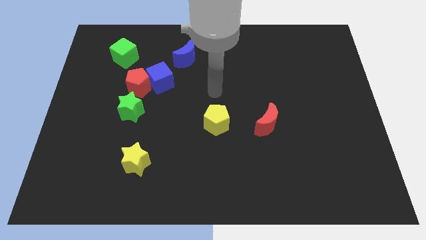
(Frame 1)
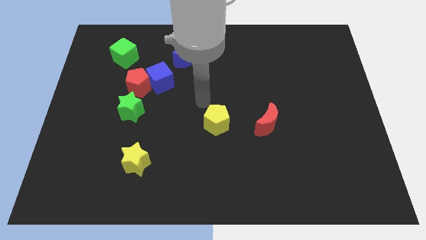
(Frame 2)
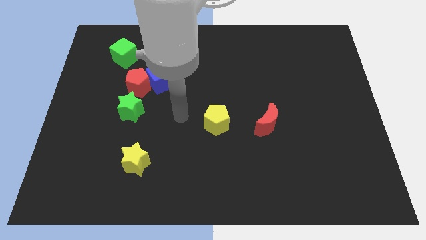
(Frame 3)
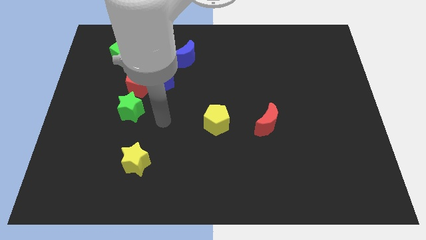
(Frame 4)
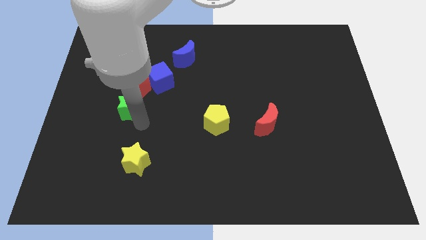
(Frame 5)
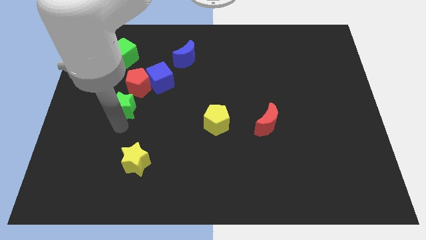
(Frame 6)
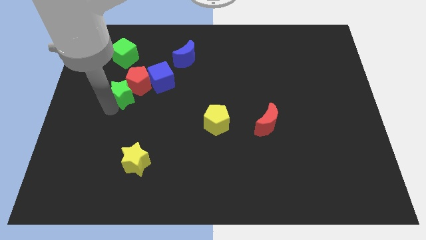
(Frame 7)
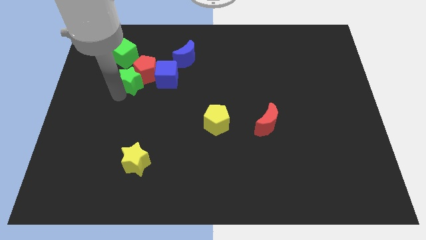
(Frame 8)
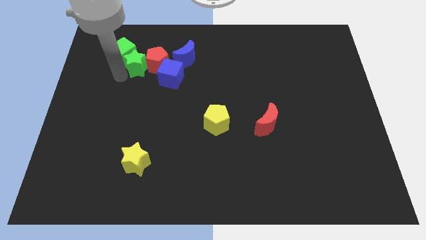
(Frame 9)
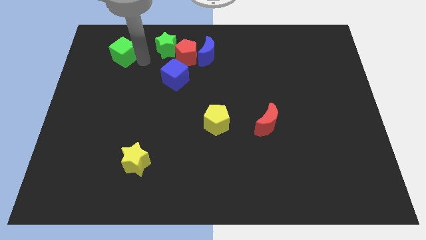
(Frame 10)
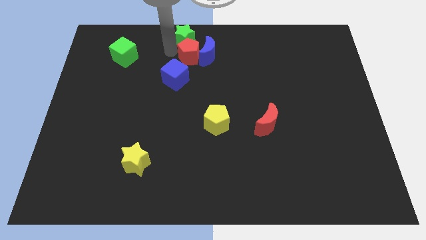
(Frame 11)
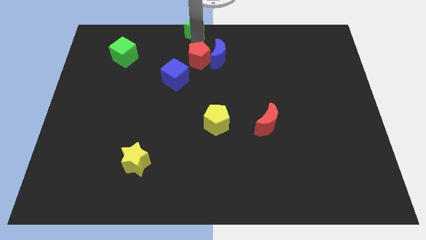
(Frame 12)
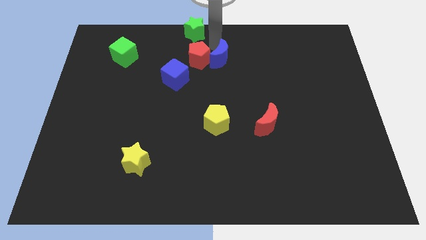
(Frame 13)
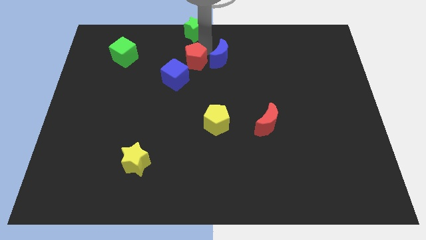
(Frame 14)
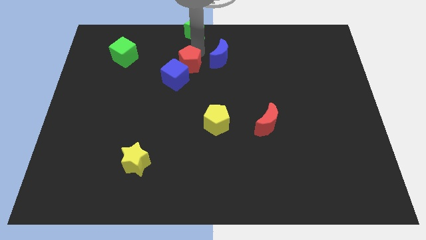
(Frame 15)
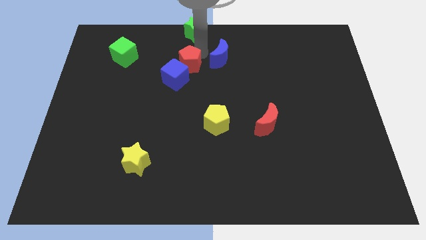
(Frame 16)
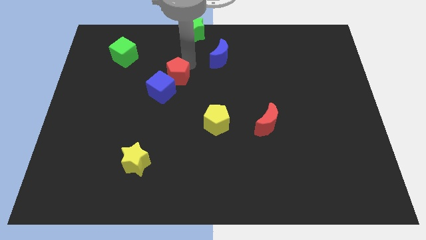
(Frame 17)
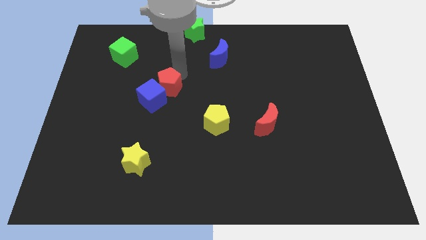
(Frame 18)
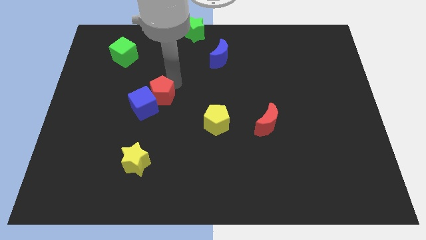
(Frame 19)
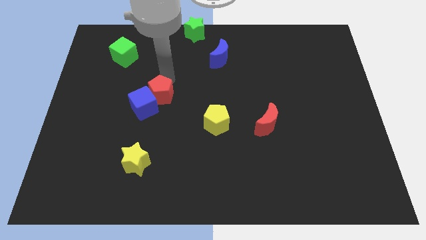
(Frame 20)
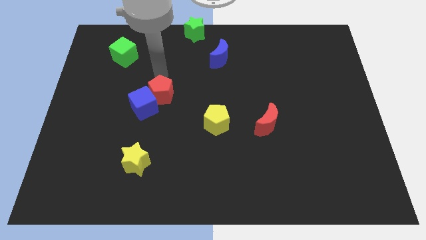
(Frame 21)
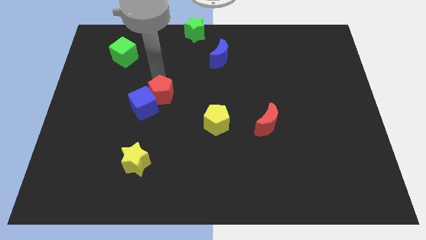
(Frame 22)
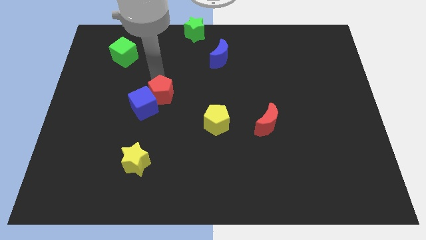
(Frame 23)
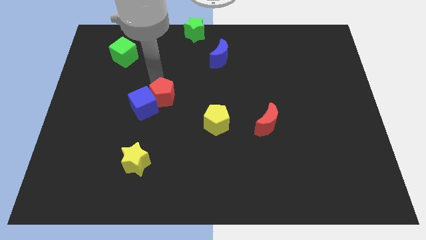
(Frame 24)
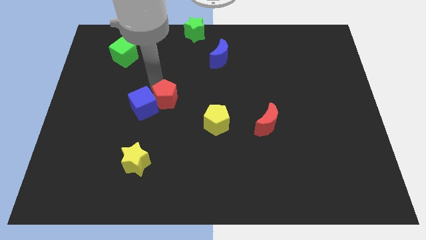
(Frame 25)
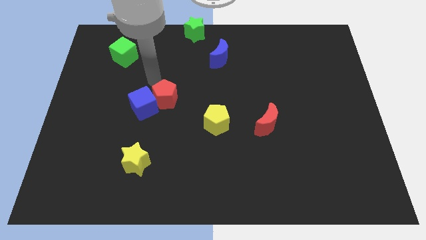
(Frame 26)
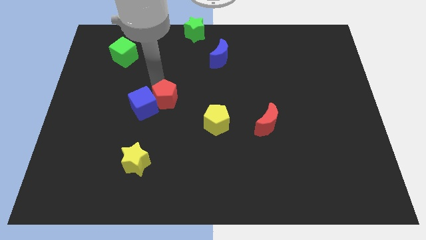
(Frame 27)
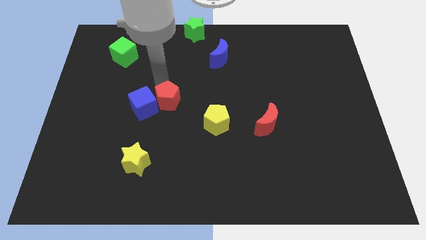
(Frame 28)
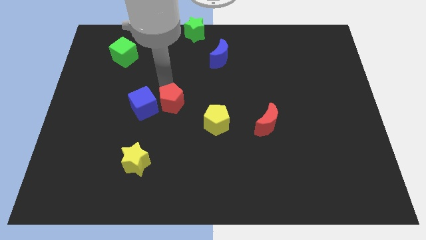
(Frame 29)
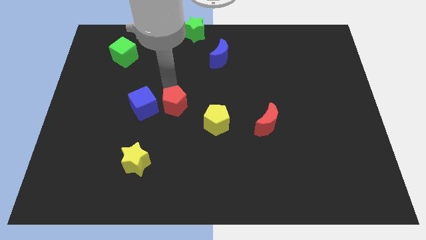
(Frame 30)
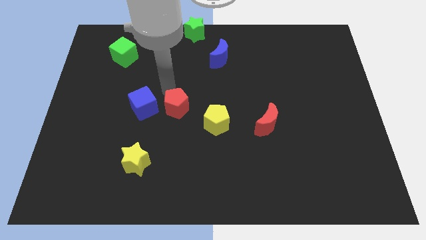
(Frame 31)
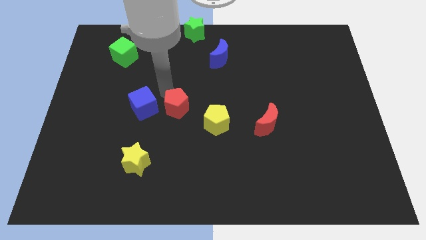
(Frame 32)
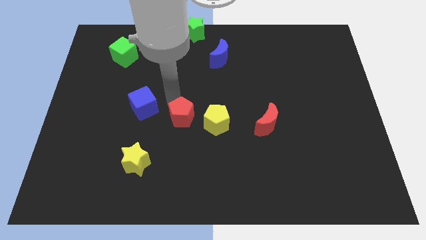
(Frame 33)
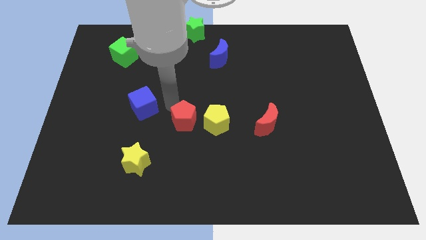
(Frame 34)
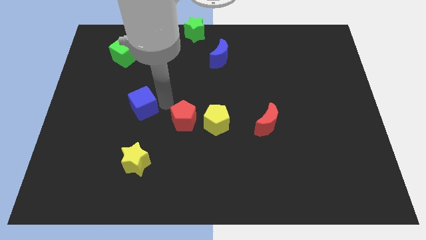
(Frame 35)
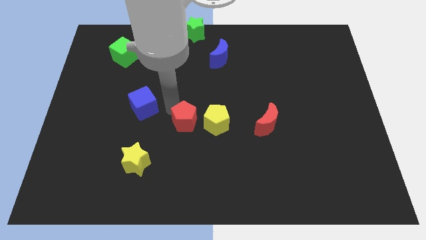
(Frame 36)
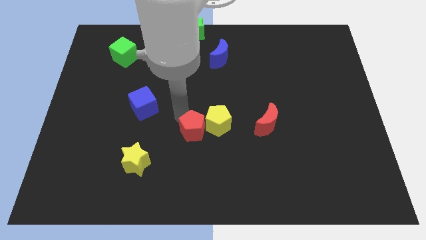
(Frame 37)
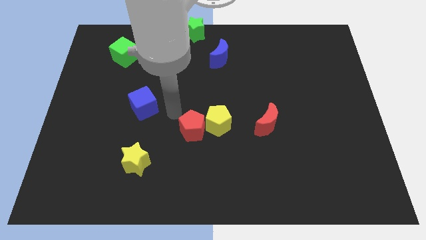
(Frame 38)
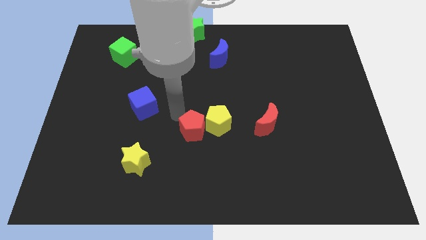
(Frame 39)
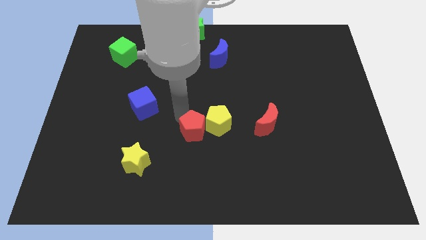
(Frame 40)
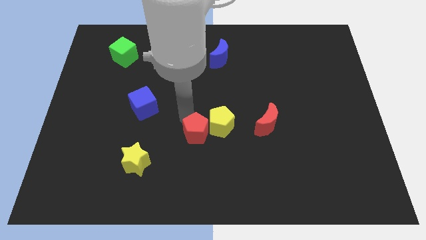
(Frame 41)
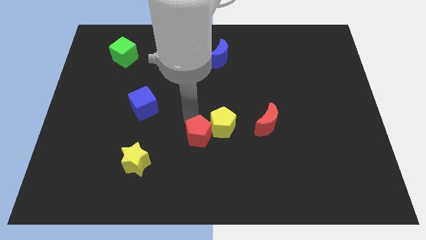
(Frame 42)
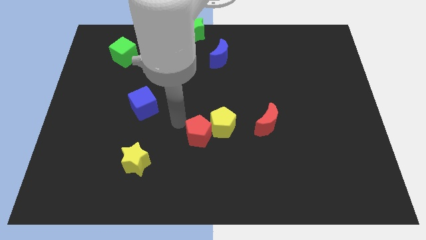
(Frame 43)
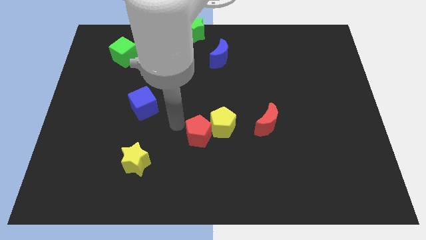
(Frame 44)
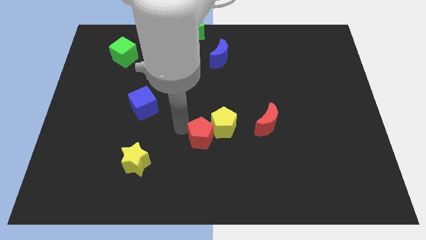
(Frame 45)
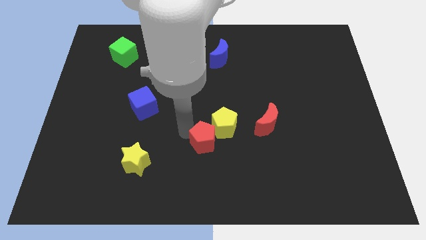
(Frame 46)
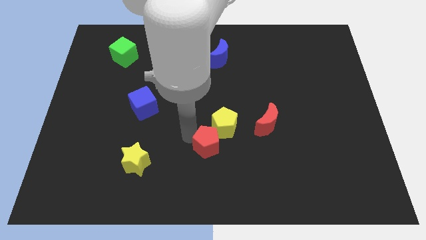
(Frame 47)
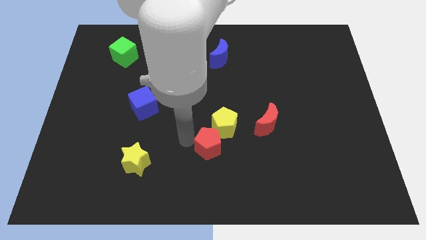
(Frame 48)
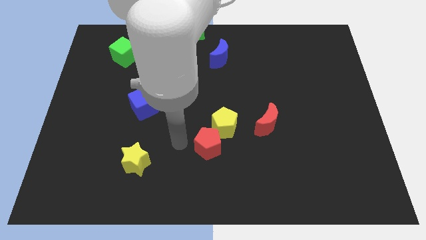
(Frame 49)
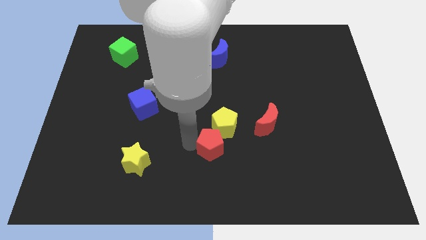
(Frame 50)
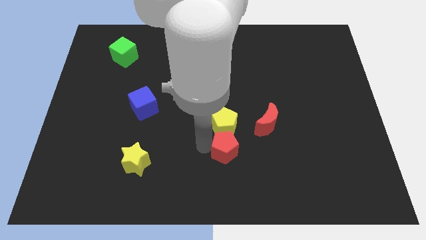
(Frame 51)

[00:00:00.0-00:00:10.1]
move the red pentagon to the bottom left side of the red moon

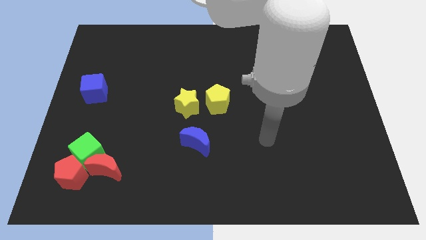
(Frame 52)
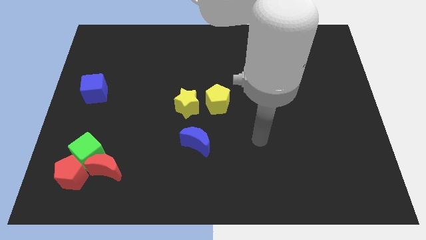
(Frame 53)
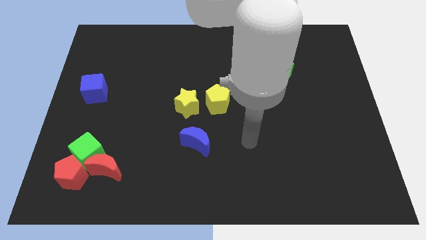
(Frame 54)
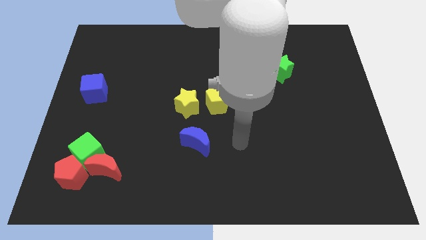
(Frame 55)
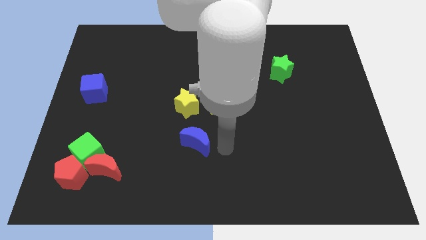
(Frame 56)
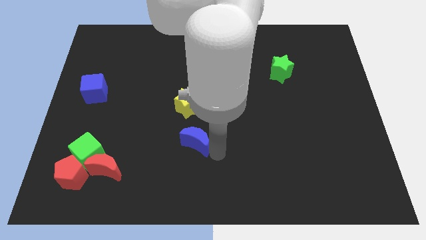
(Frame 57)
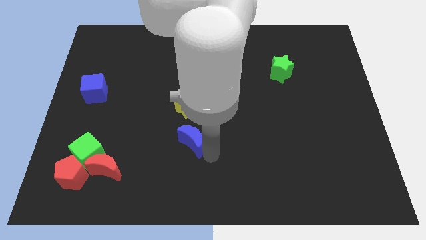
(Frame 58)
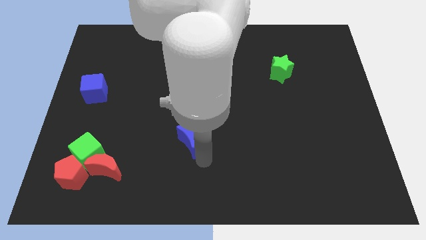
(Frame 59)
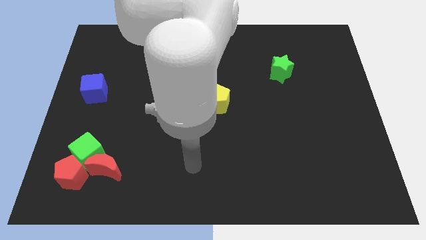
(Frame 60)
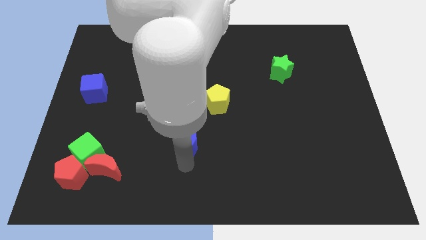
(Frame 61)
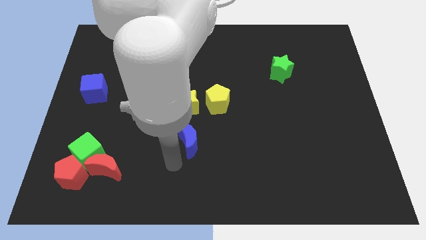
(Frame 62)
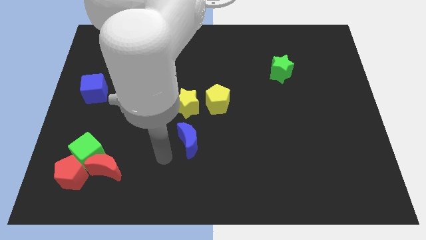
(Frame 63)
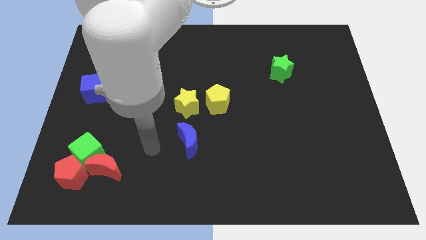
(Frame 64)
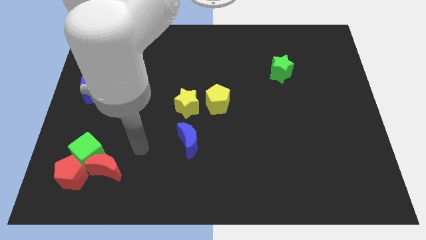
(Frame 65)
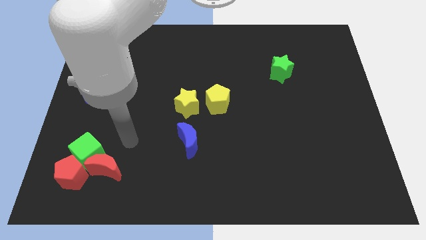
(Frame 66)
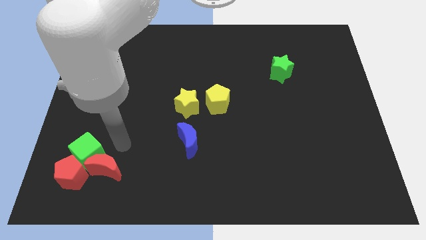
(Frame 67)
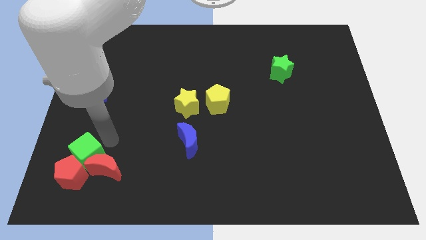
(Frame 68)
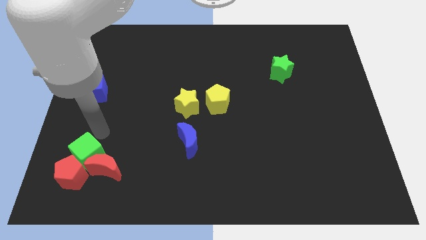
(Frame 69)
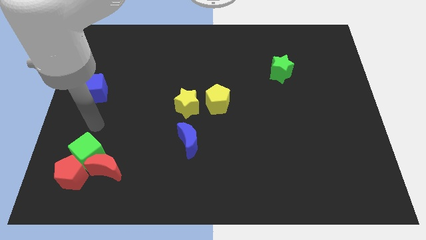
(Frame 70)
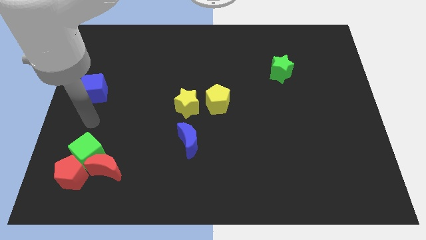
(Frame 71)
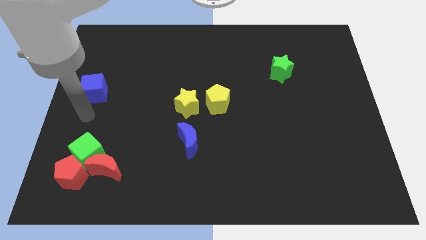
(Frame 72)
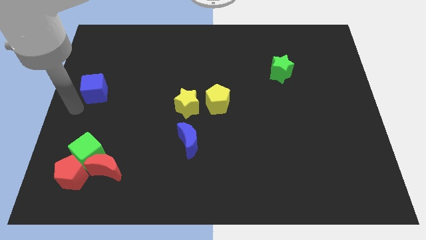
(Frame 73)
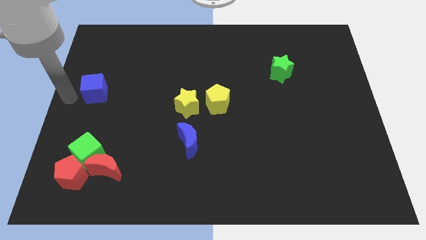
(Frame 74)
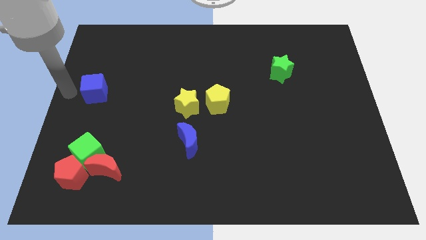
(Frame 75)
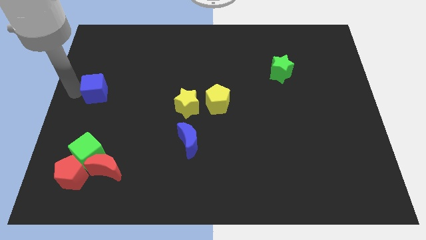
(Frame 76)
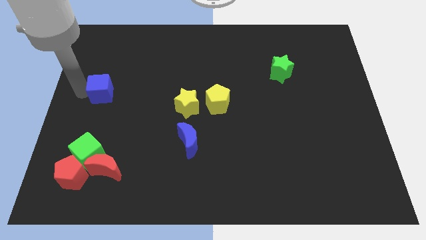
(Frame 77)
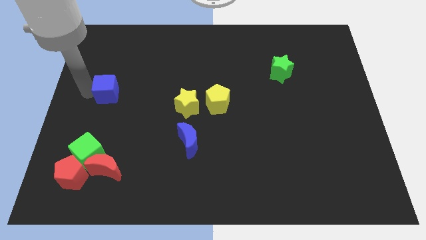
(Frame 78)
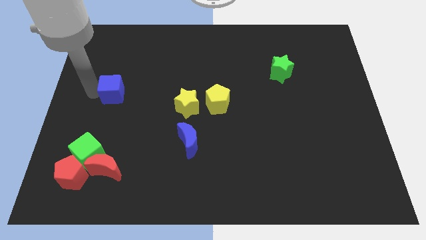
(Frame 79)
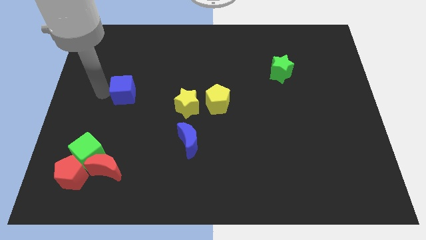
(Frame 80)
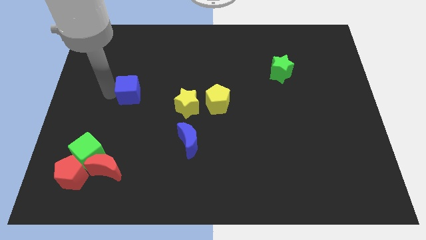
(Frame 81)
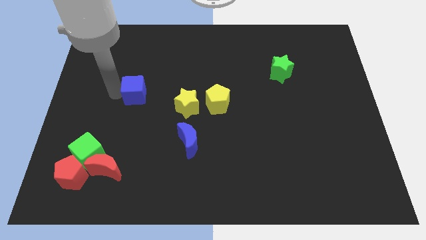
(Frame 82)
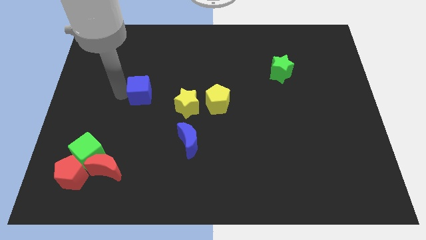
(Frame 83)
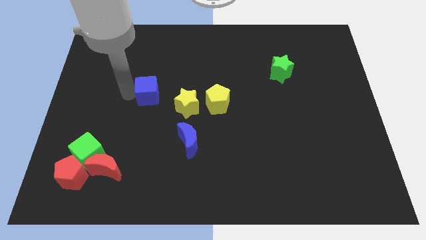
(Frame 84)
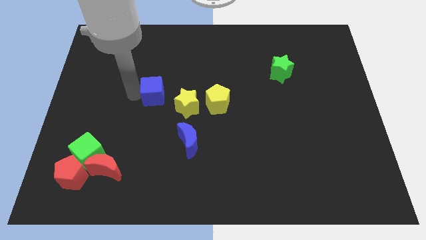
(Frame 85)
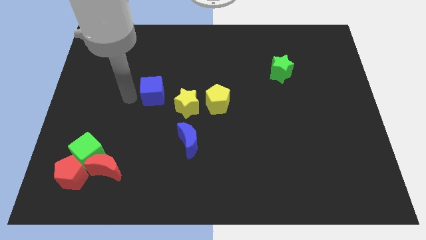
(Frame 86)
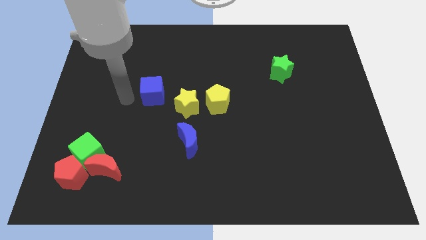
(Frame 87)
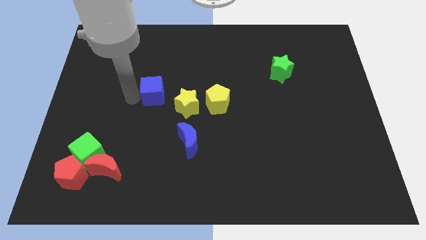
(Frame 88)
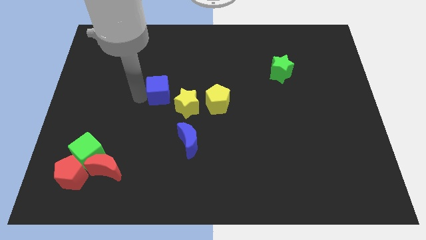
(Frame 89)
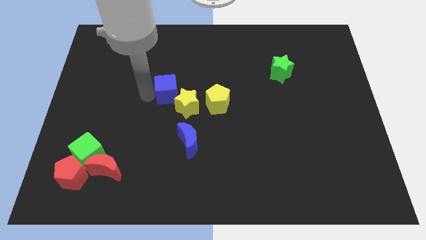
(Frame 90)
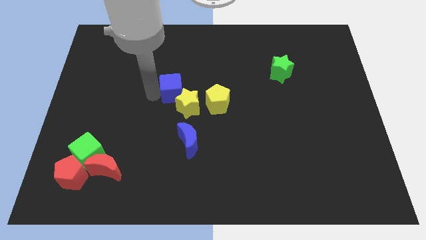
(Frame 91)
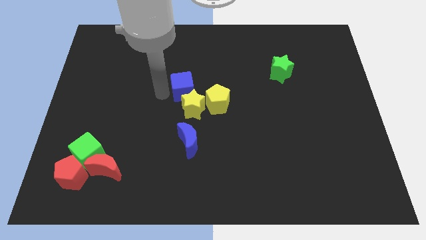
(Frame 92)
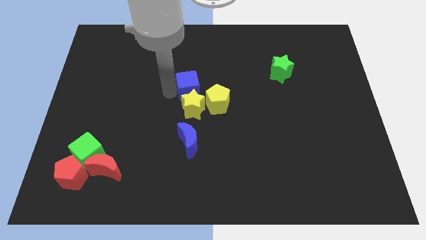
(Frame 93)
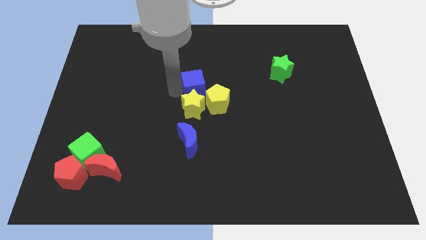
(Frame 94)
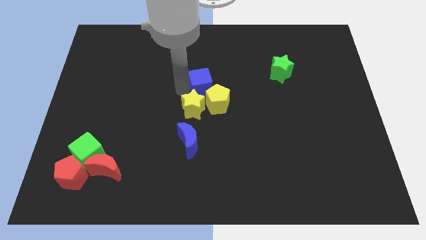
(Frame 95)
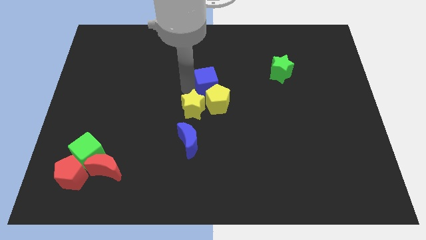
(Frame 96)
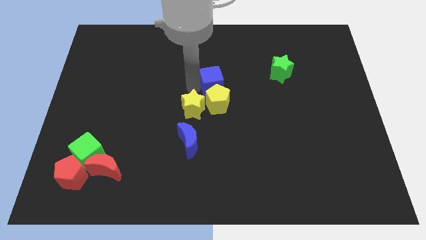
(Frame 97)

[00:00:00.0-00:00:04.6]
move the blue cube to the top right side of the yellow pentagon
